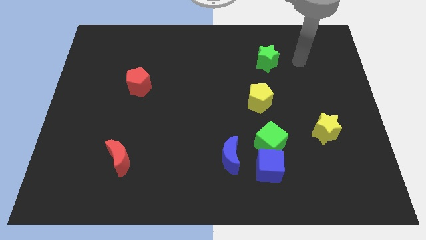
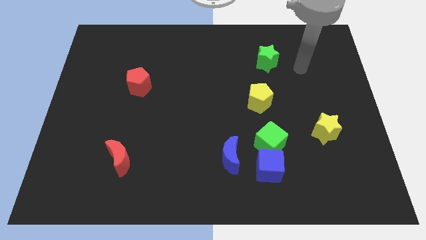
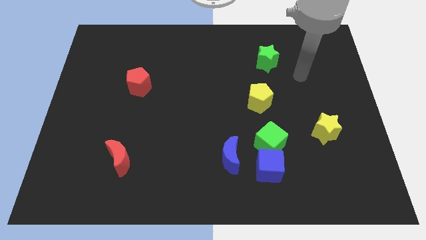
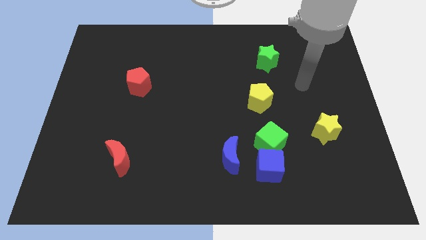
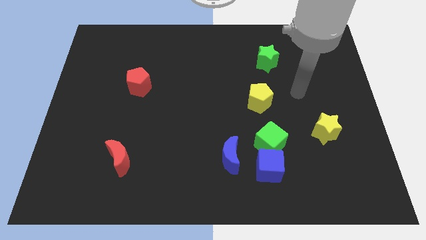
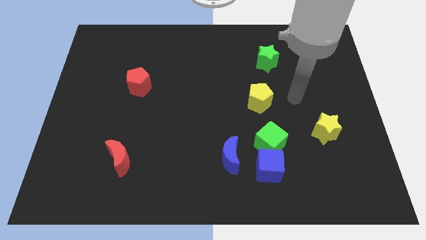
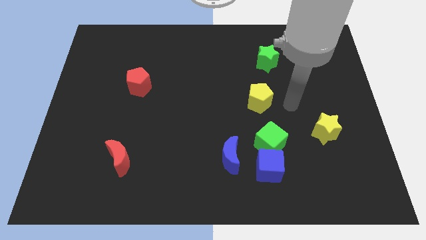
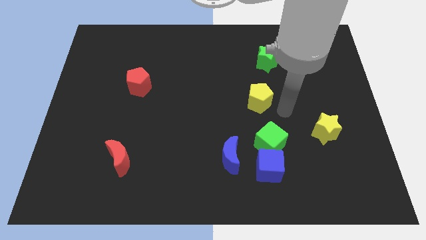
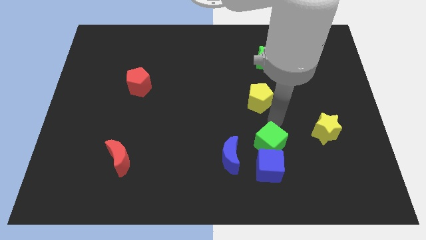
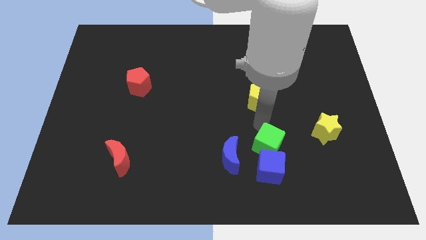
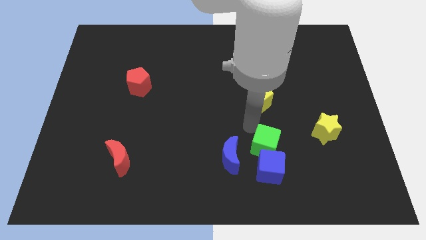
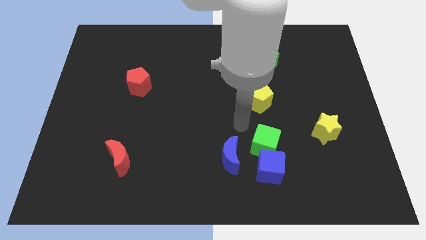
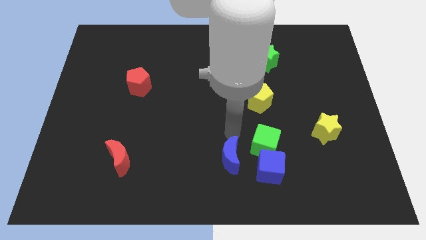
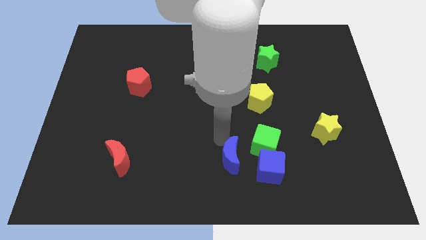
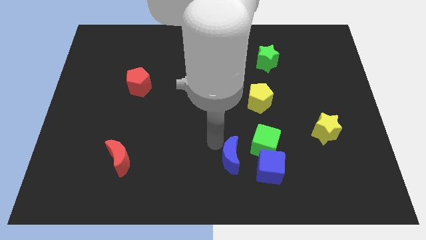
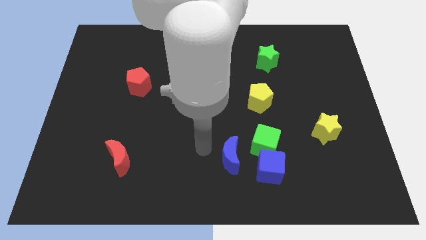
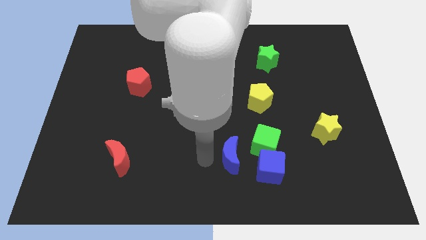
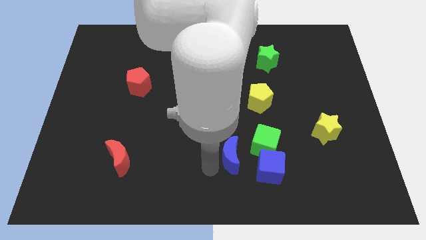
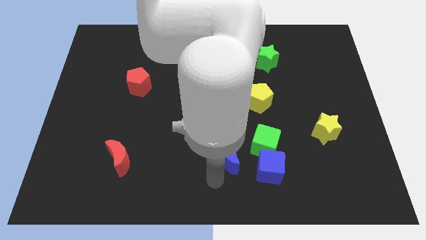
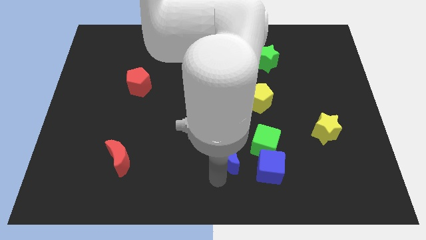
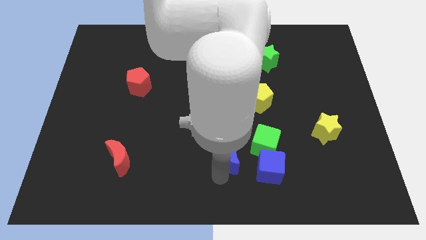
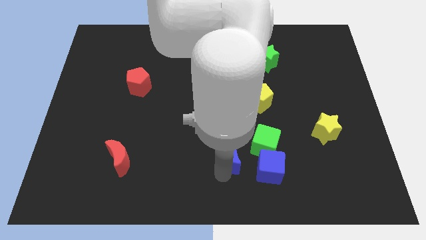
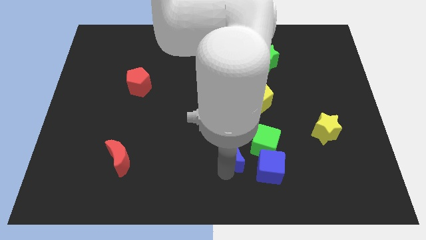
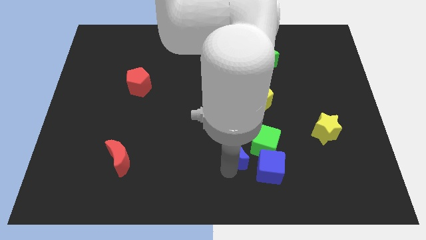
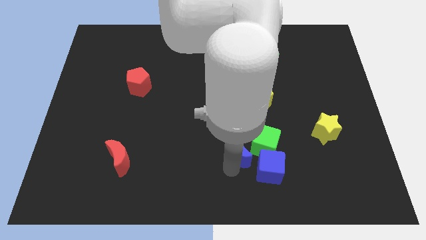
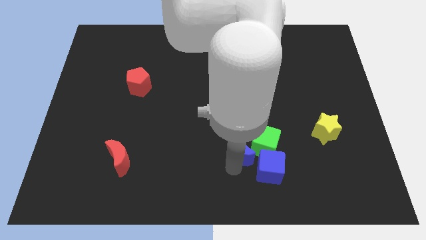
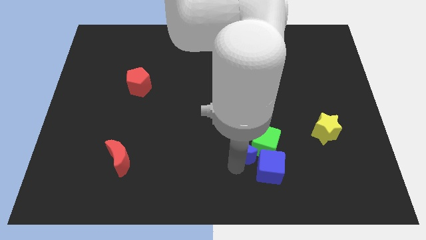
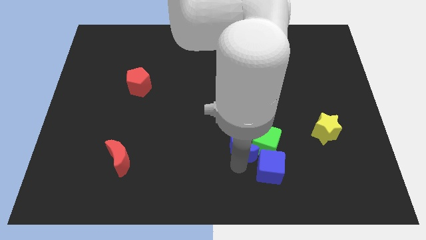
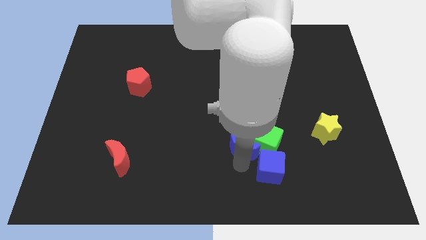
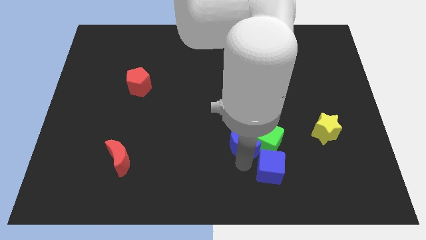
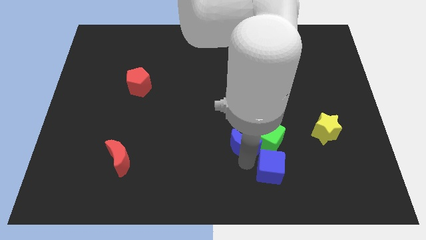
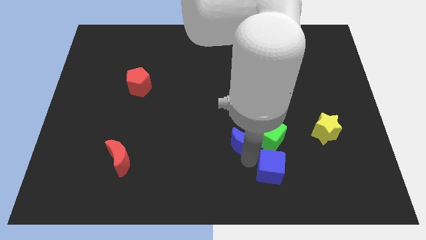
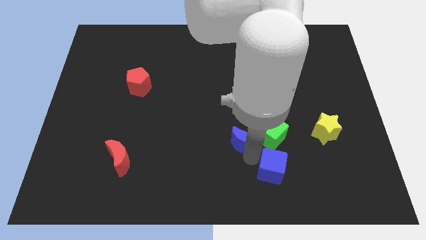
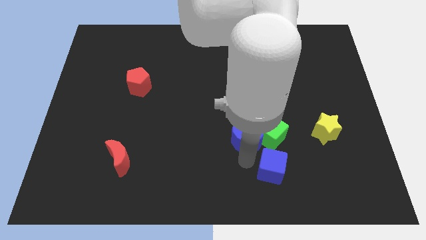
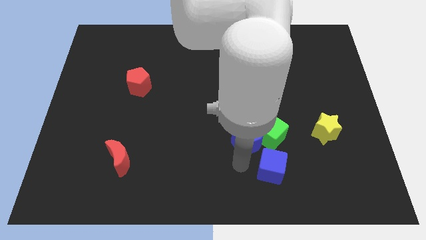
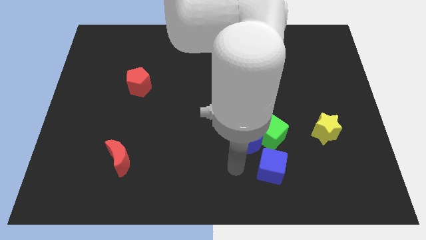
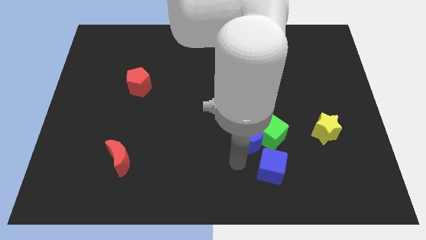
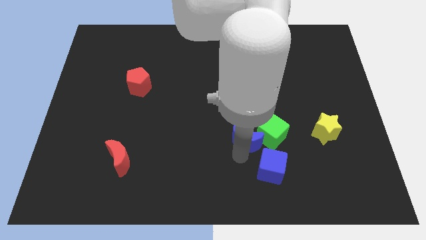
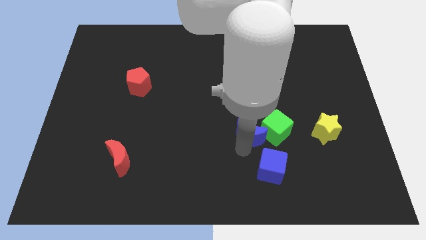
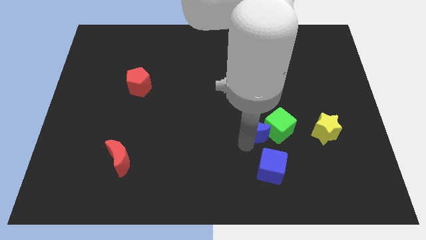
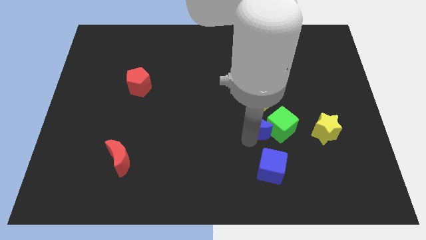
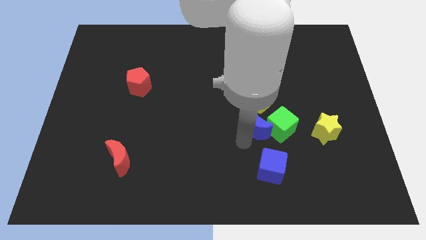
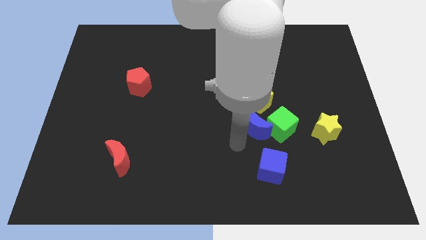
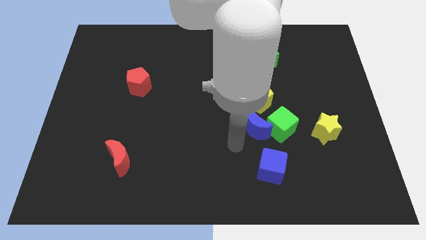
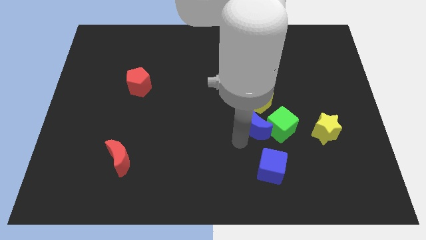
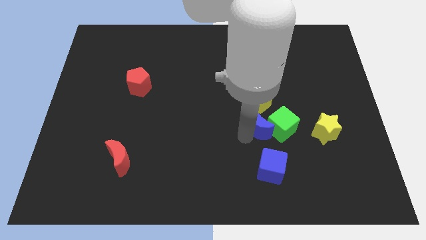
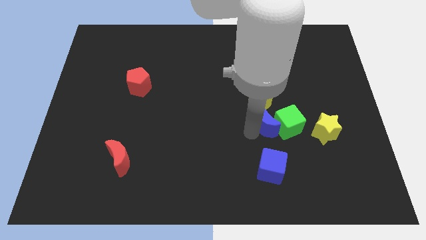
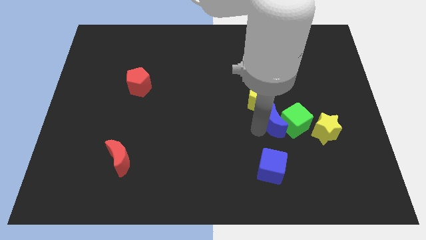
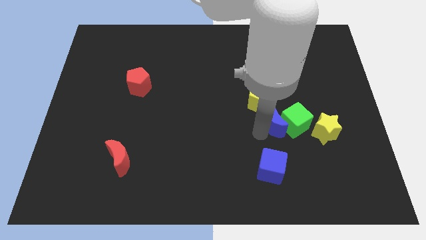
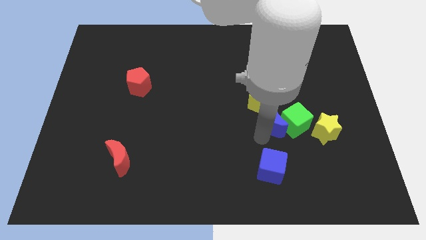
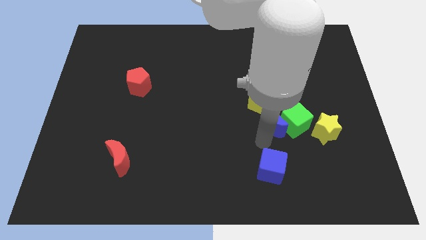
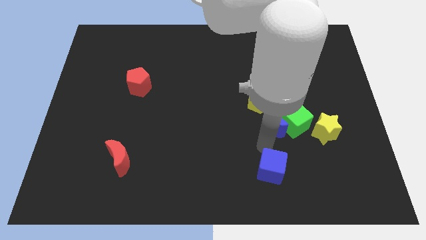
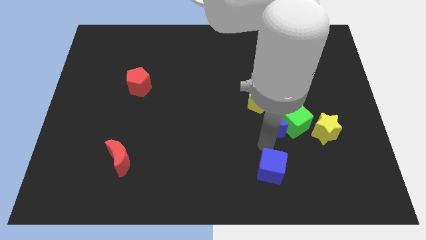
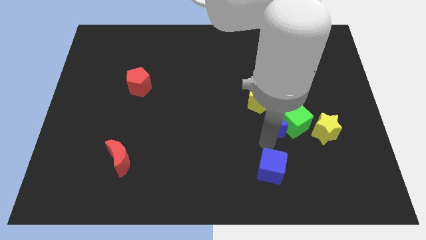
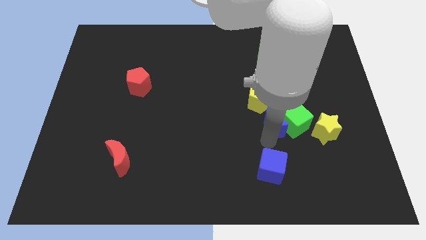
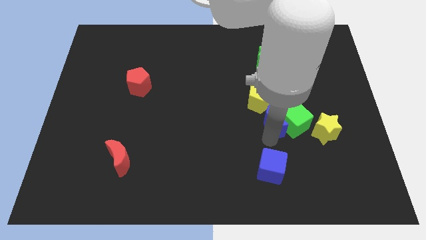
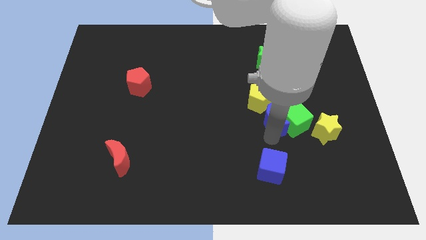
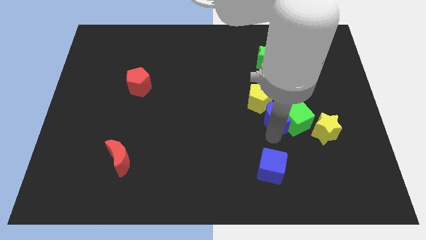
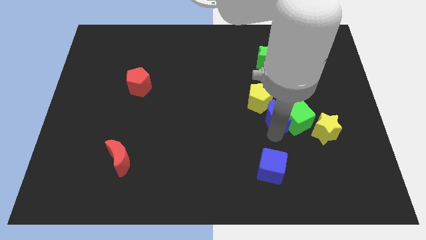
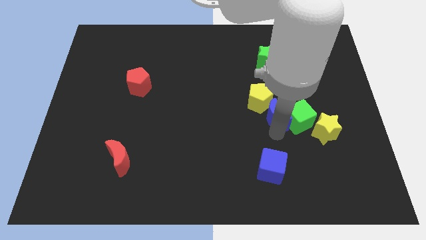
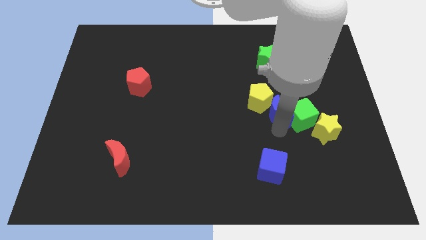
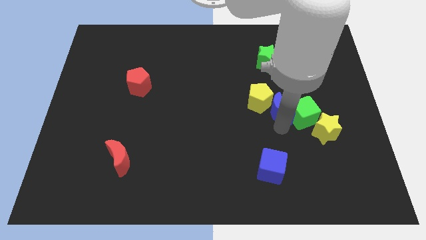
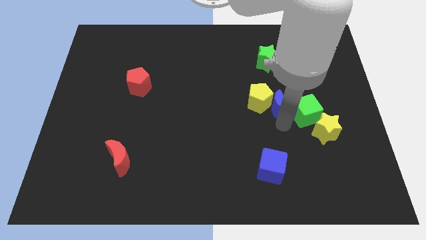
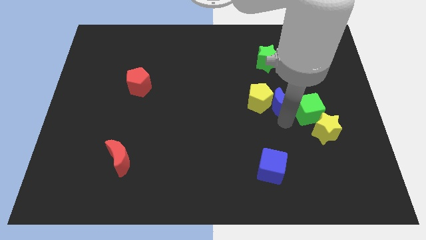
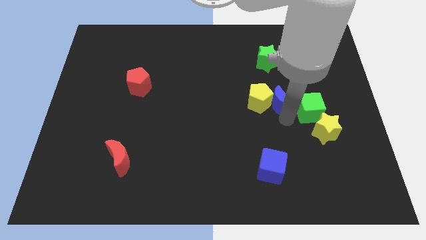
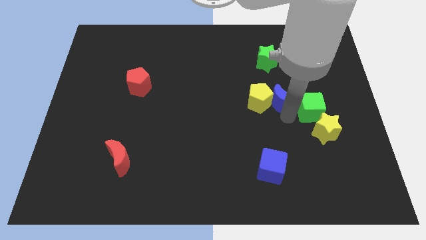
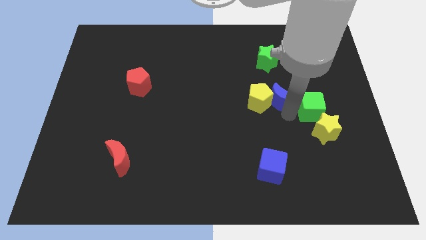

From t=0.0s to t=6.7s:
move the blue moon diagonally upwards and right

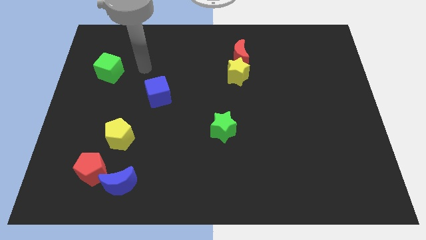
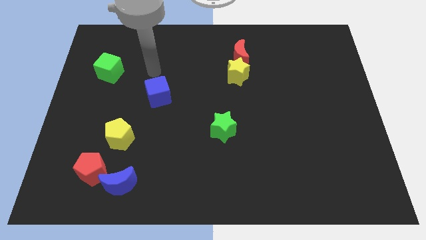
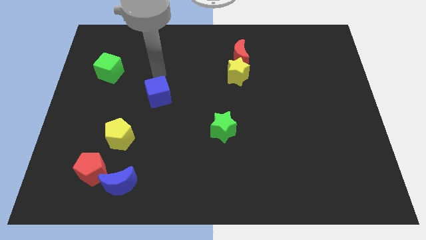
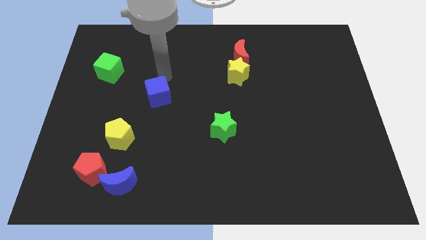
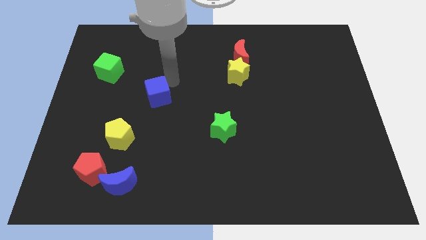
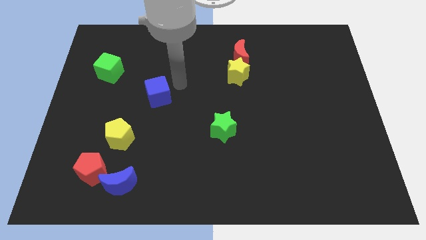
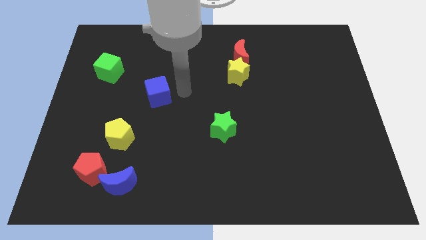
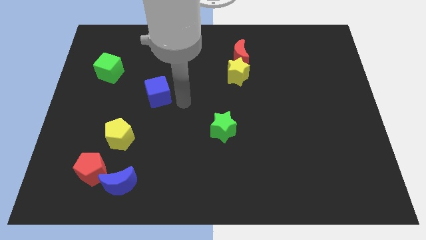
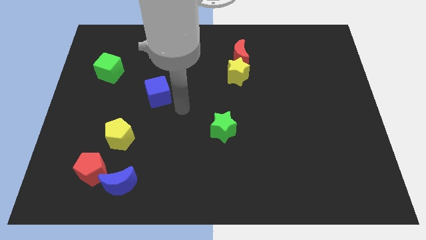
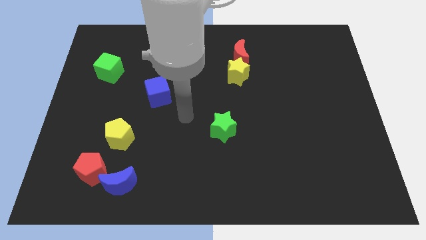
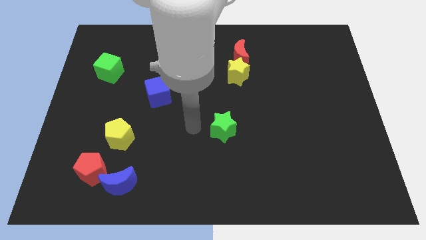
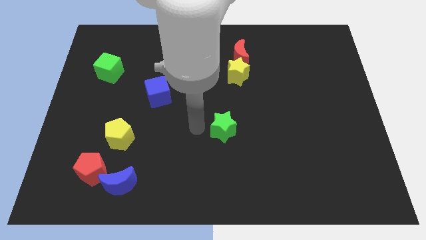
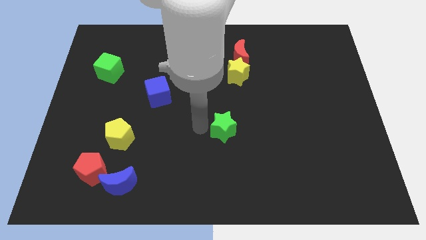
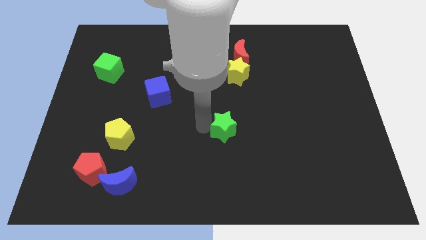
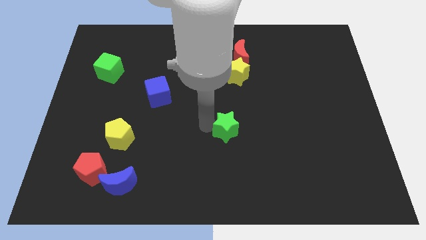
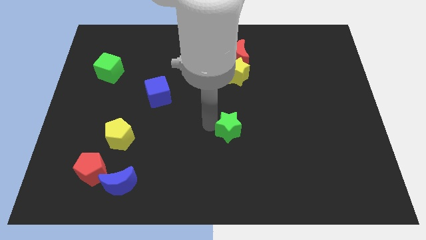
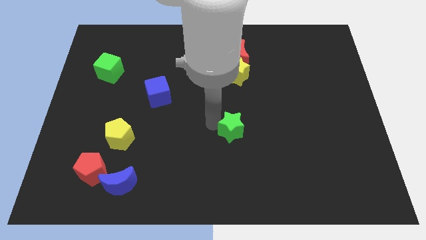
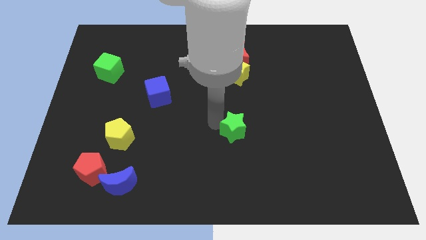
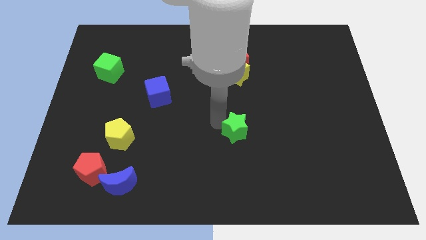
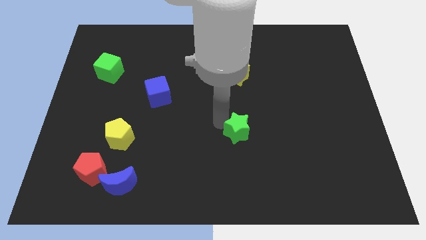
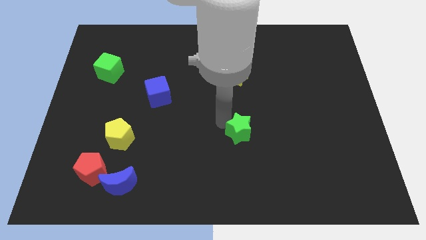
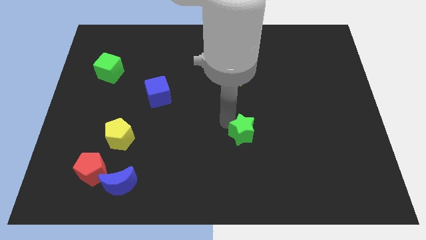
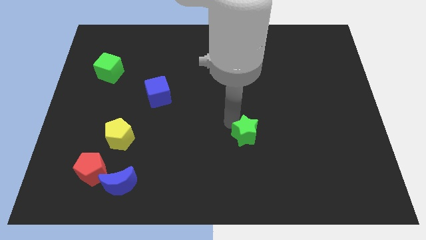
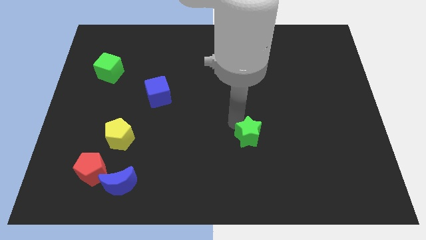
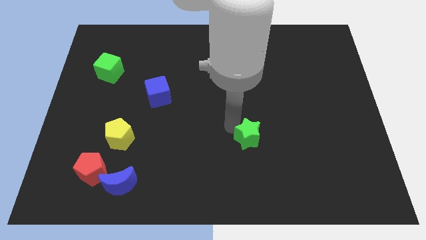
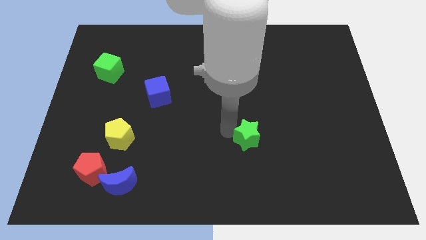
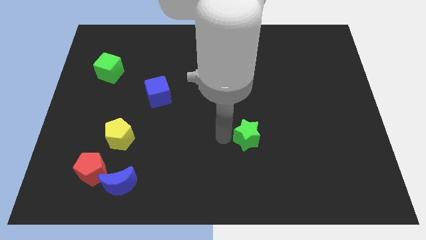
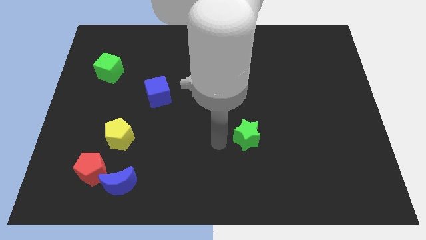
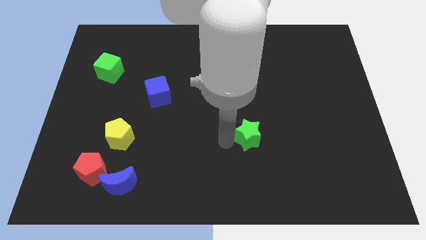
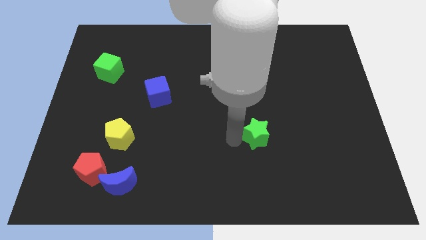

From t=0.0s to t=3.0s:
move the green star right a bit
